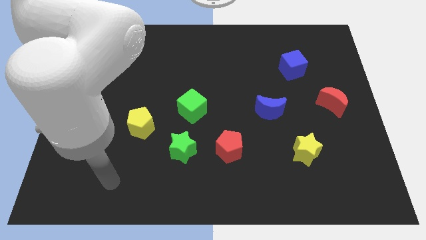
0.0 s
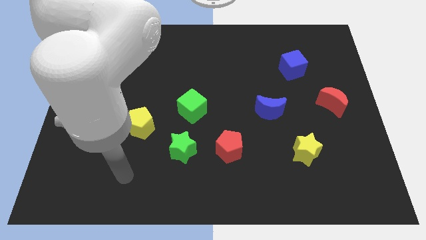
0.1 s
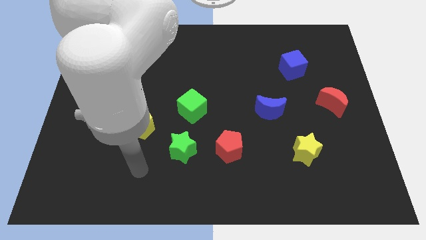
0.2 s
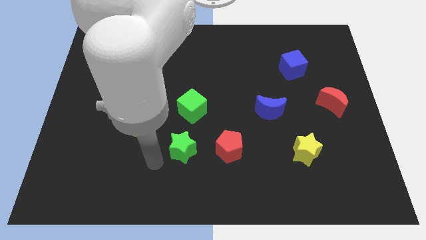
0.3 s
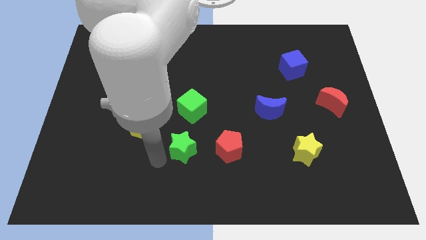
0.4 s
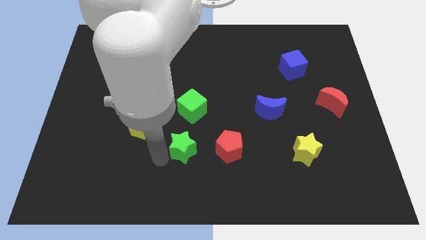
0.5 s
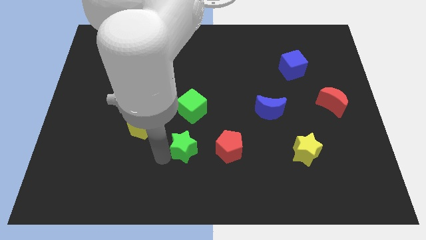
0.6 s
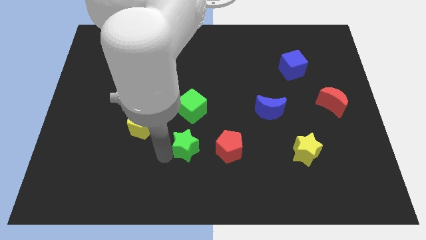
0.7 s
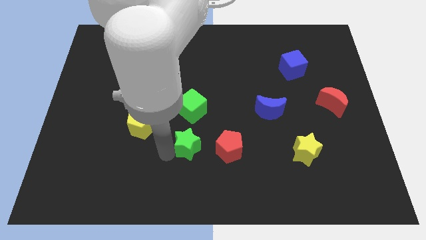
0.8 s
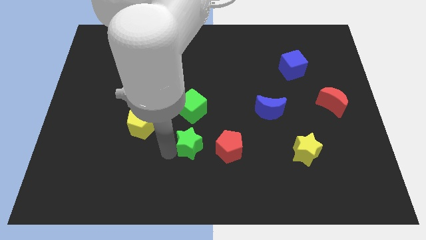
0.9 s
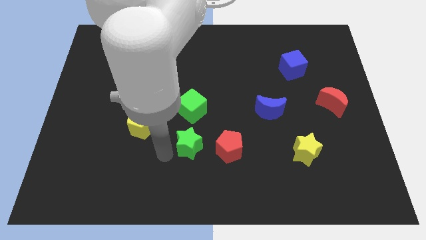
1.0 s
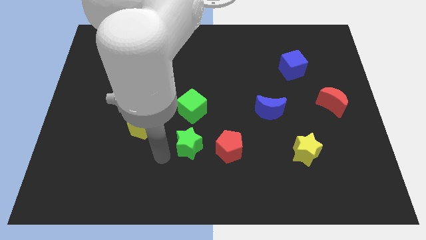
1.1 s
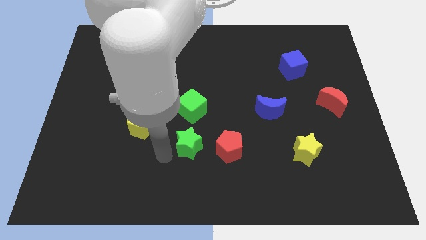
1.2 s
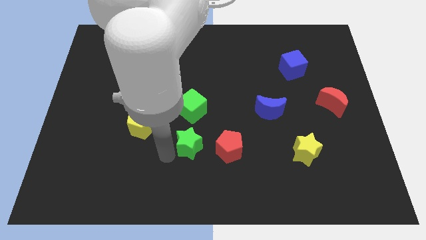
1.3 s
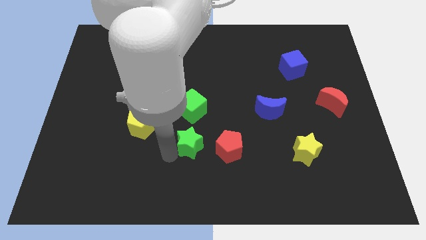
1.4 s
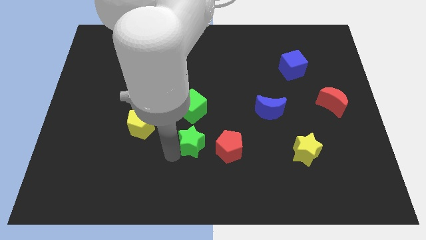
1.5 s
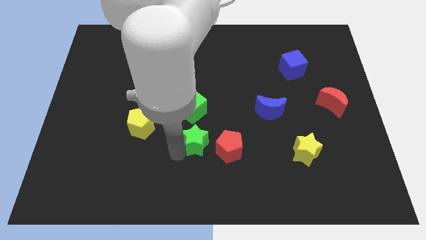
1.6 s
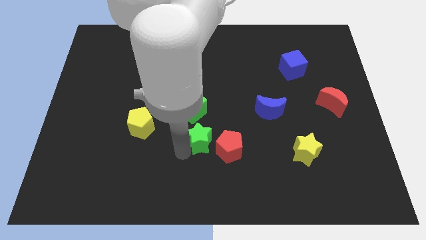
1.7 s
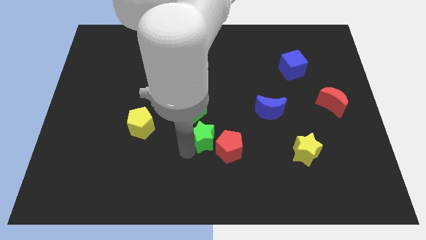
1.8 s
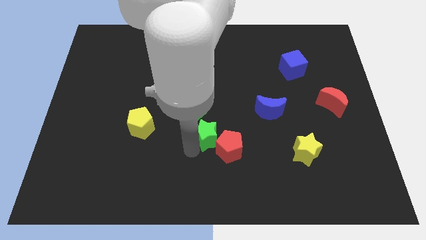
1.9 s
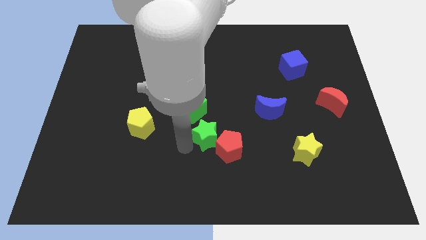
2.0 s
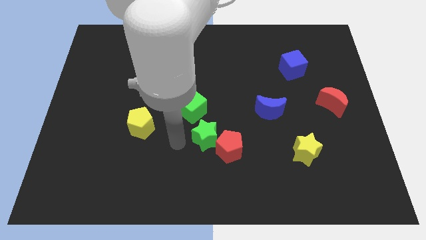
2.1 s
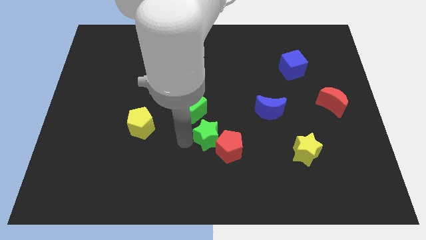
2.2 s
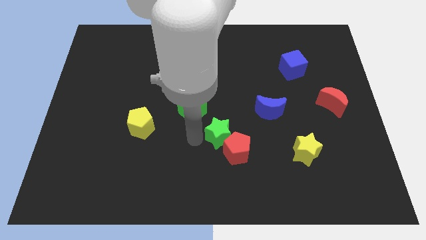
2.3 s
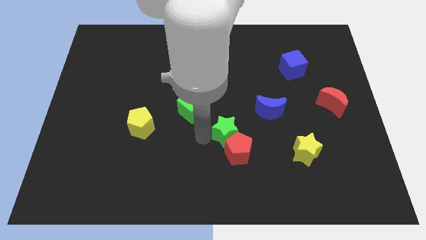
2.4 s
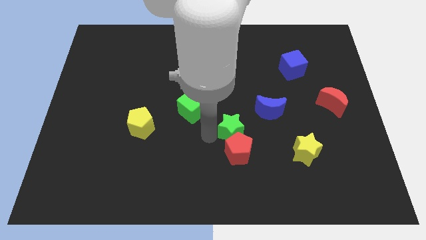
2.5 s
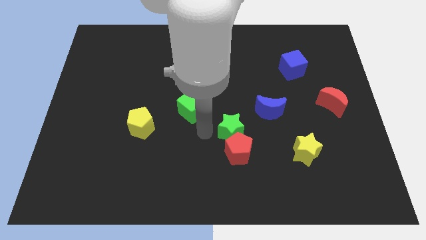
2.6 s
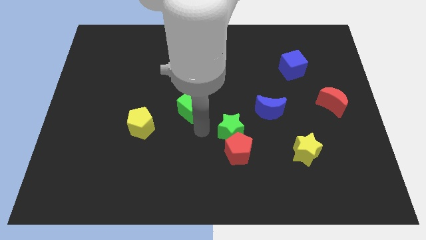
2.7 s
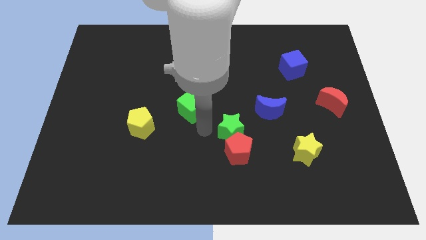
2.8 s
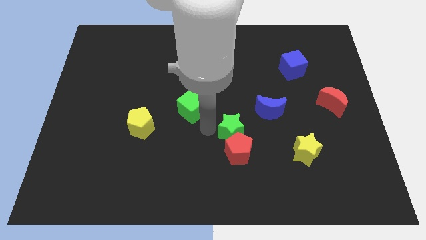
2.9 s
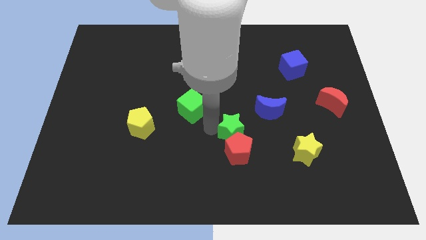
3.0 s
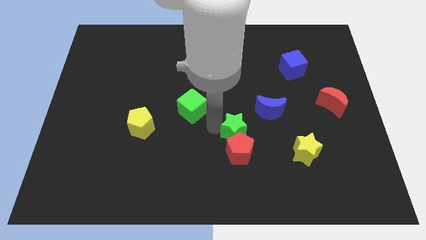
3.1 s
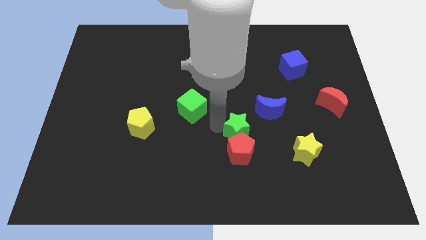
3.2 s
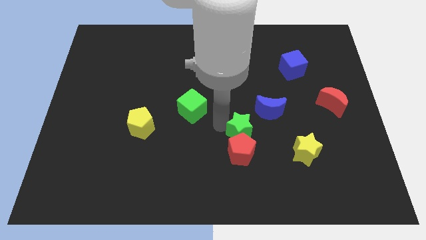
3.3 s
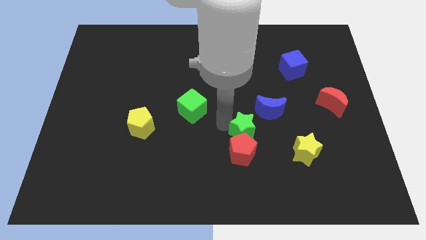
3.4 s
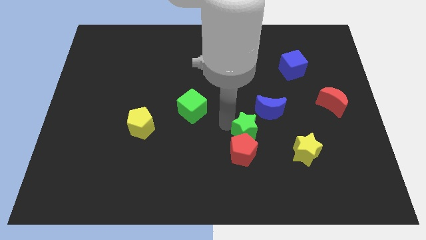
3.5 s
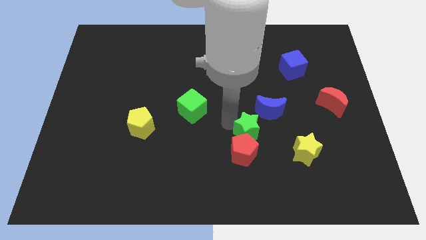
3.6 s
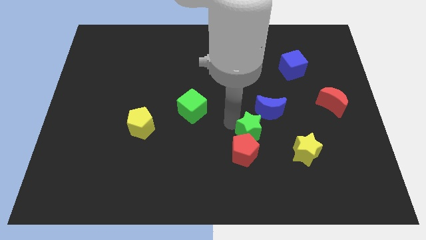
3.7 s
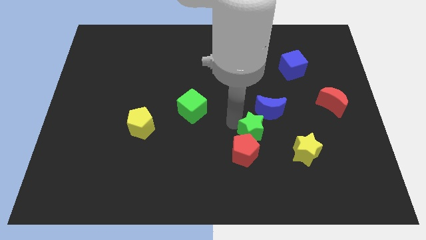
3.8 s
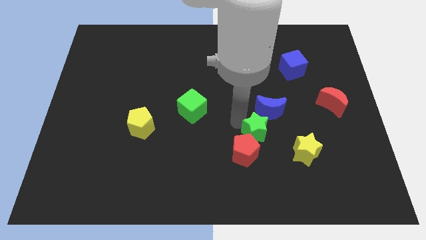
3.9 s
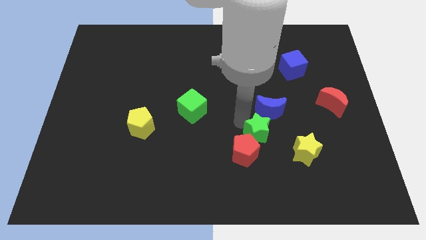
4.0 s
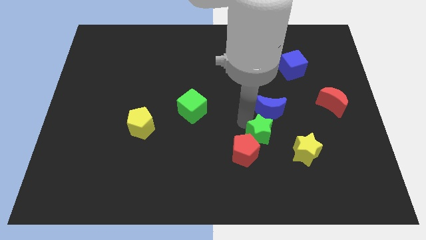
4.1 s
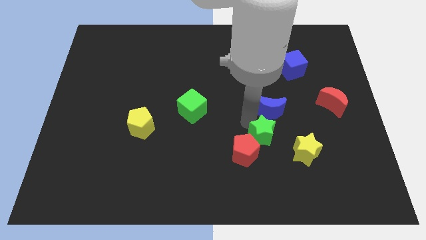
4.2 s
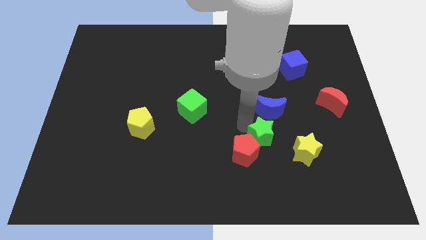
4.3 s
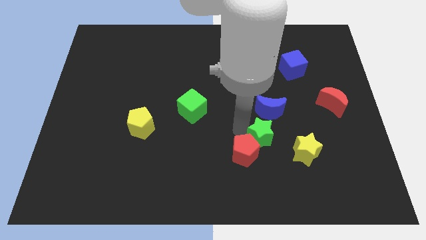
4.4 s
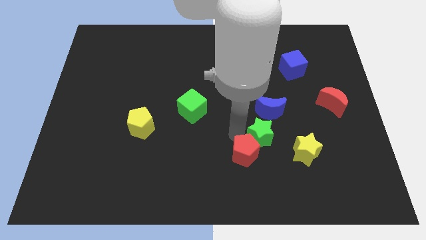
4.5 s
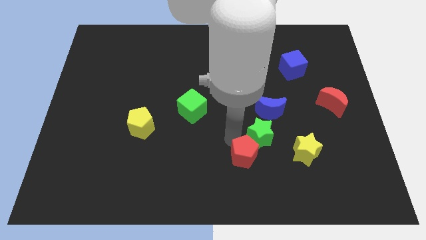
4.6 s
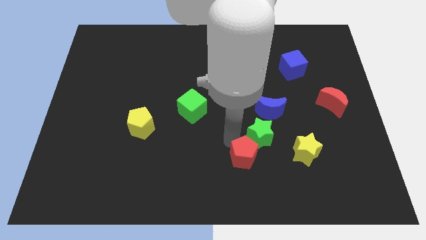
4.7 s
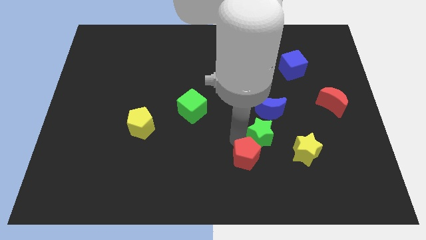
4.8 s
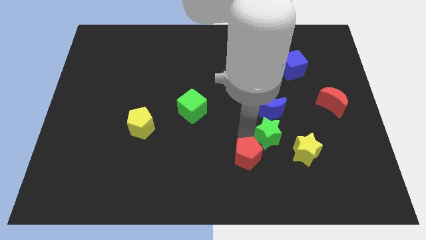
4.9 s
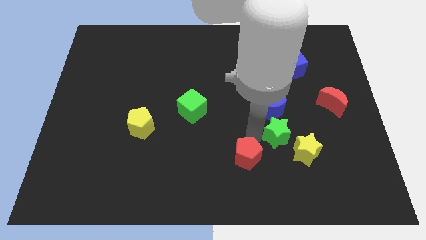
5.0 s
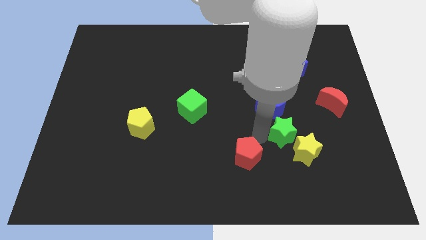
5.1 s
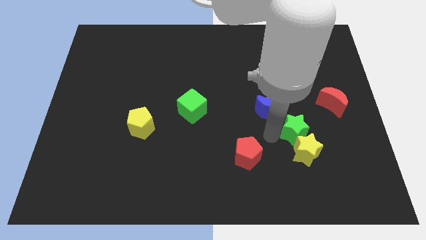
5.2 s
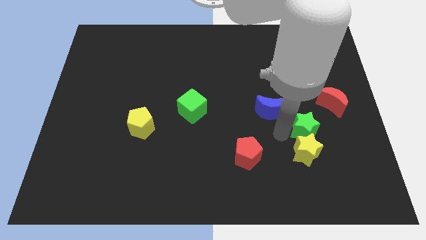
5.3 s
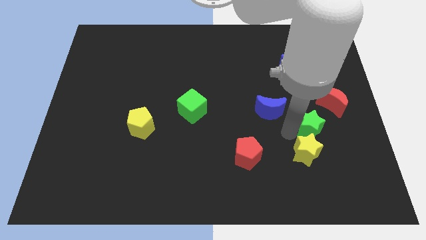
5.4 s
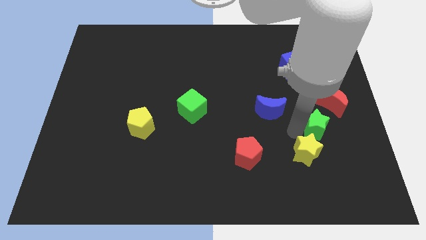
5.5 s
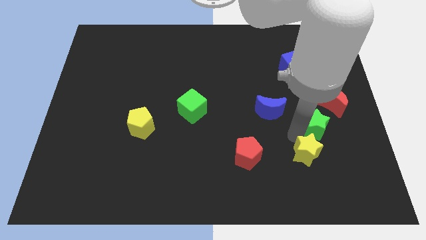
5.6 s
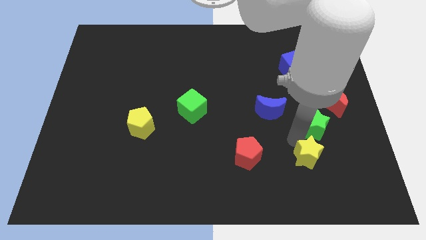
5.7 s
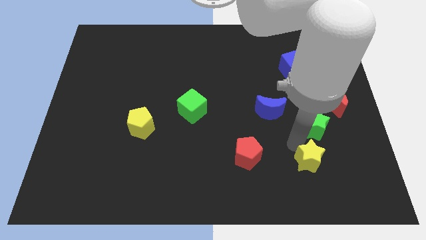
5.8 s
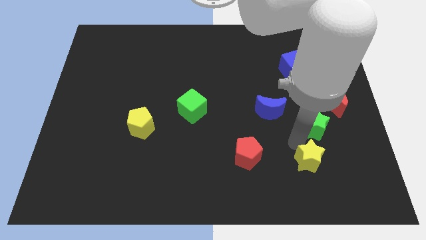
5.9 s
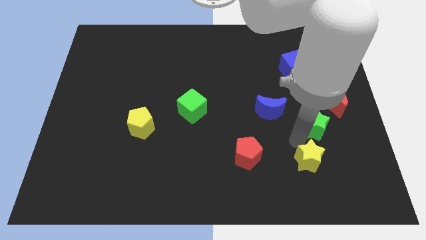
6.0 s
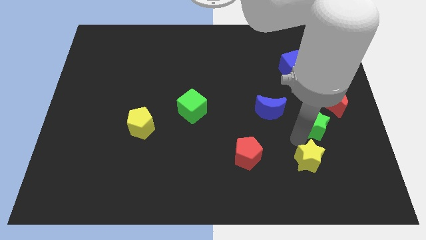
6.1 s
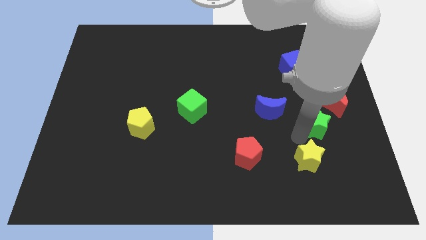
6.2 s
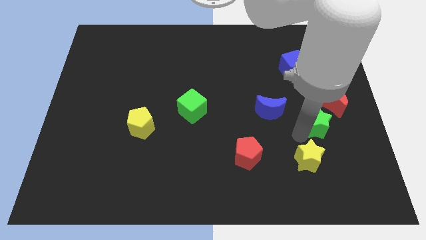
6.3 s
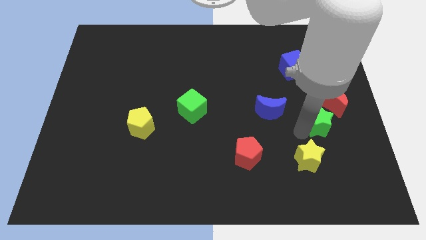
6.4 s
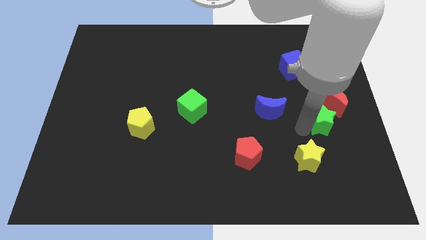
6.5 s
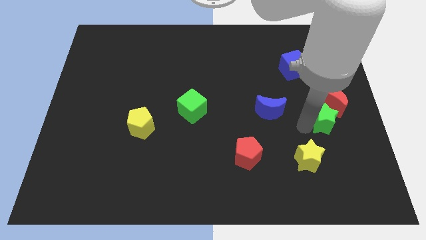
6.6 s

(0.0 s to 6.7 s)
push the green star close to the red moon
